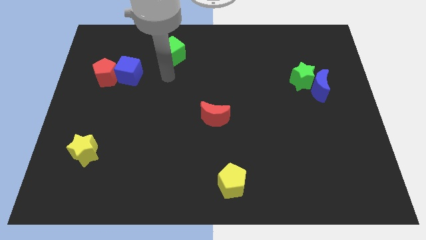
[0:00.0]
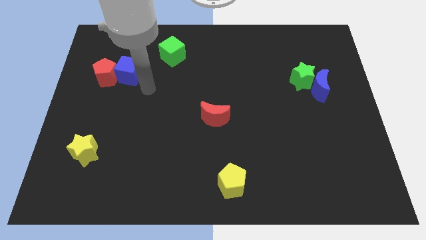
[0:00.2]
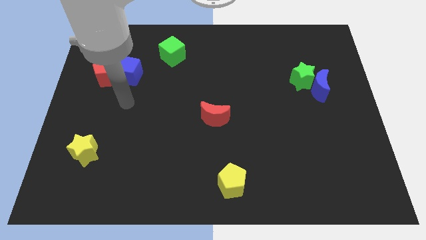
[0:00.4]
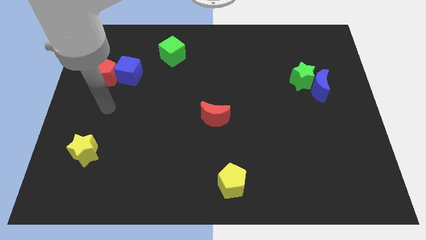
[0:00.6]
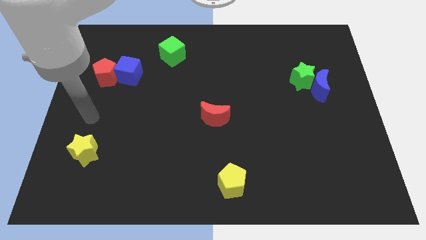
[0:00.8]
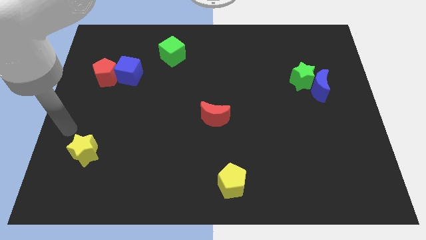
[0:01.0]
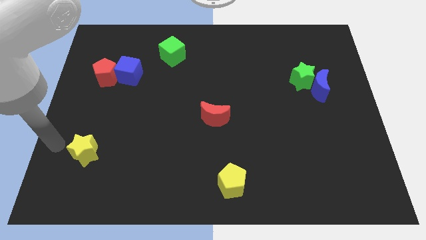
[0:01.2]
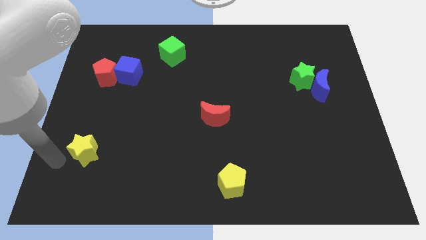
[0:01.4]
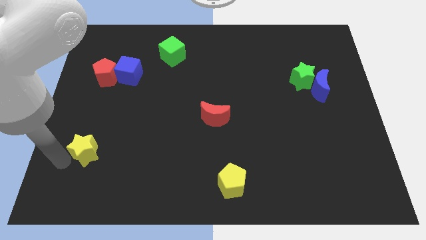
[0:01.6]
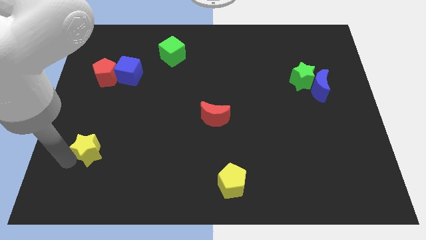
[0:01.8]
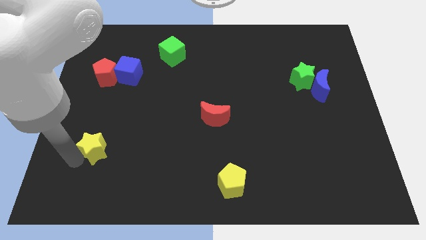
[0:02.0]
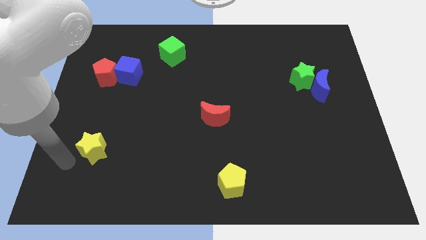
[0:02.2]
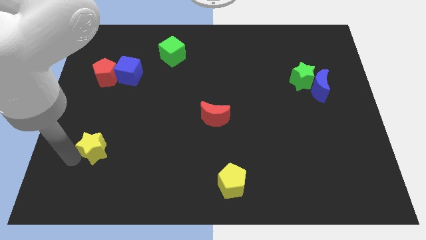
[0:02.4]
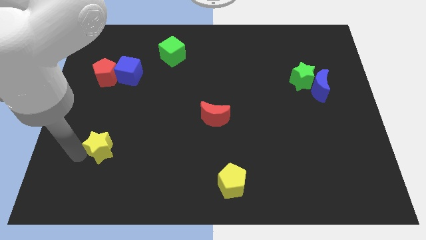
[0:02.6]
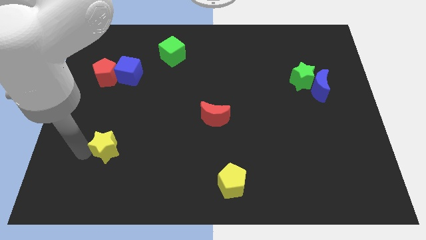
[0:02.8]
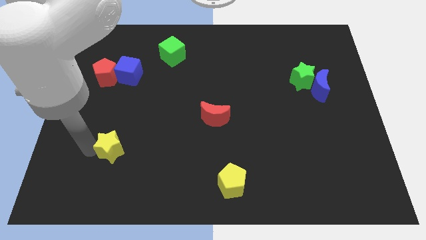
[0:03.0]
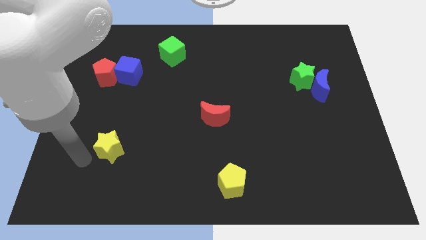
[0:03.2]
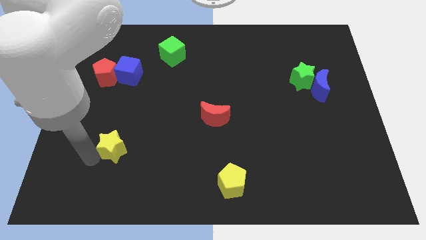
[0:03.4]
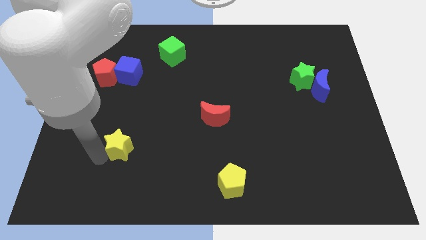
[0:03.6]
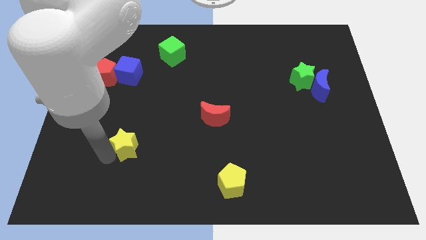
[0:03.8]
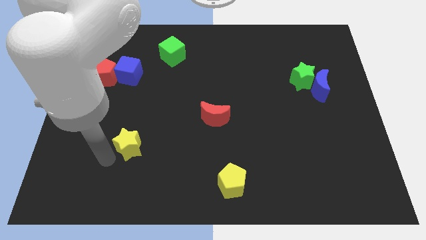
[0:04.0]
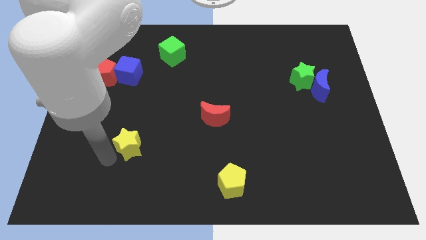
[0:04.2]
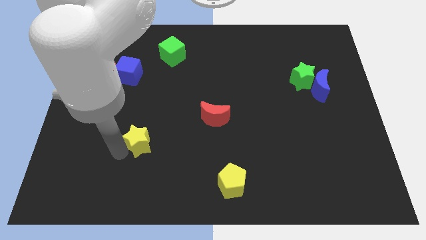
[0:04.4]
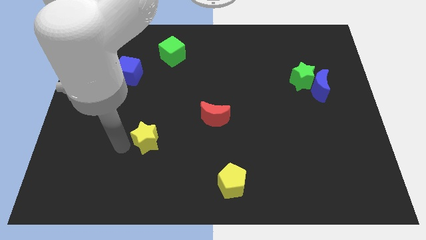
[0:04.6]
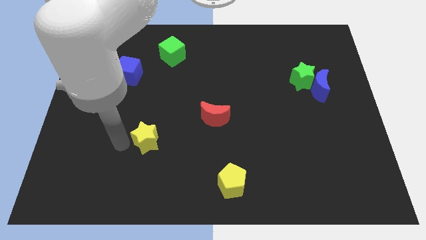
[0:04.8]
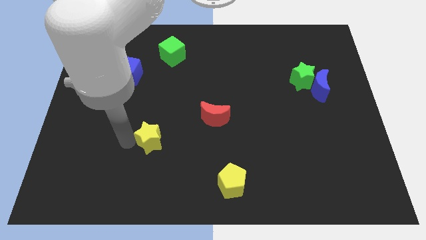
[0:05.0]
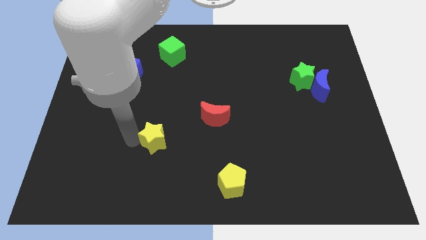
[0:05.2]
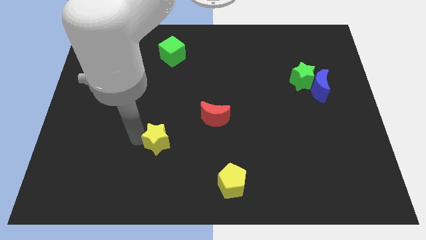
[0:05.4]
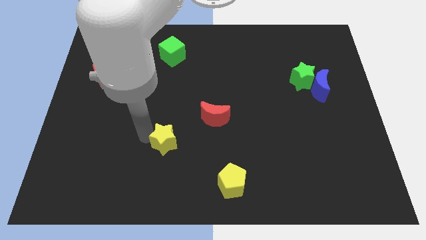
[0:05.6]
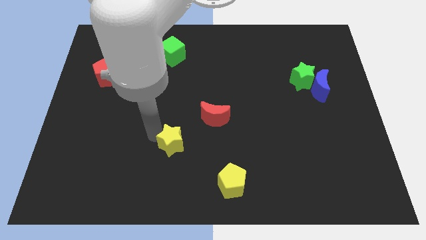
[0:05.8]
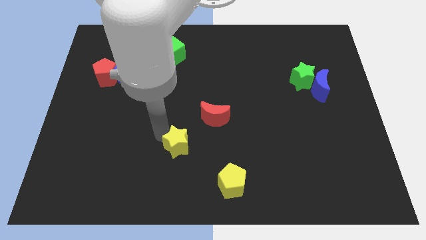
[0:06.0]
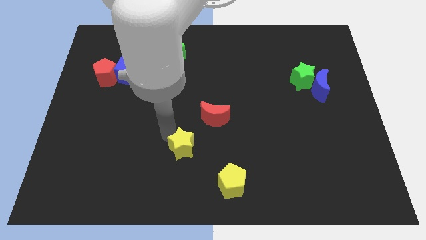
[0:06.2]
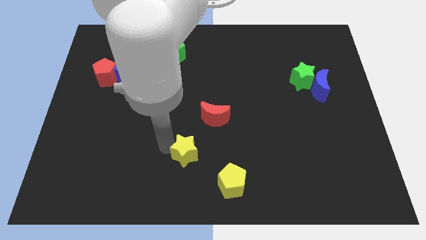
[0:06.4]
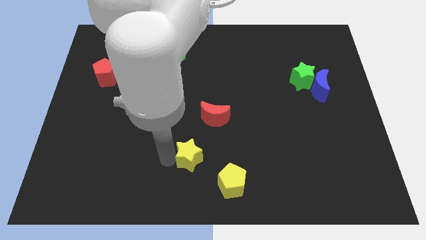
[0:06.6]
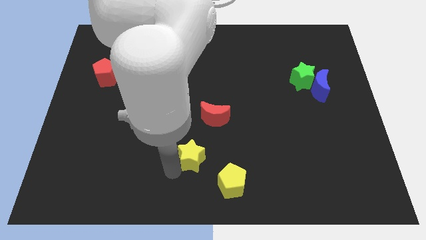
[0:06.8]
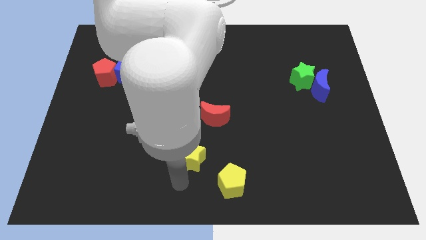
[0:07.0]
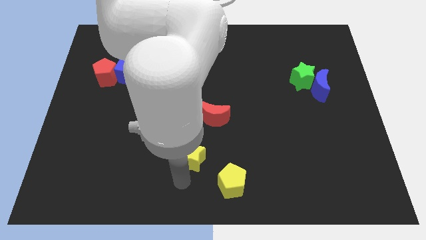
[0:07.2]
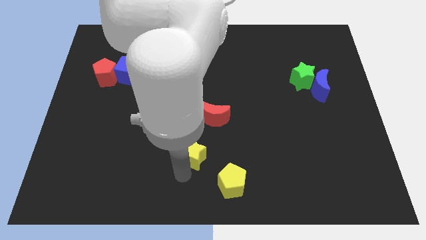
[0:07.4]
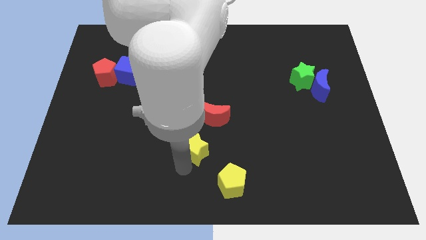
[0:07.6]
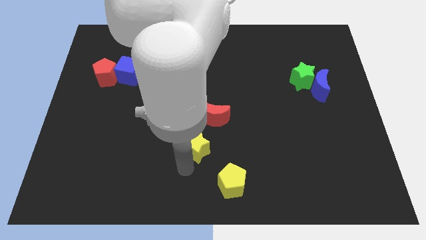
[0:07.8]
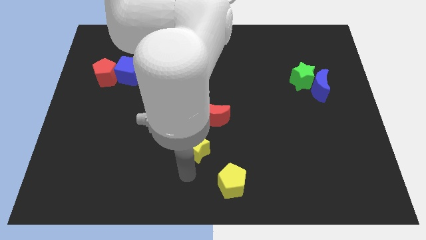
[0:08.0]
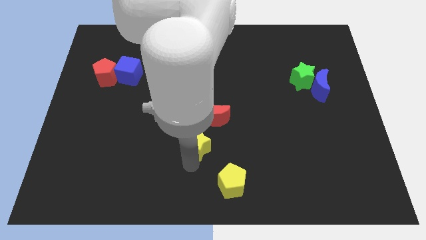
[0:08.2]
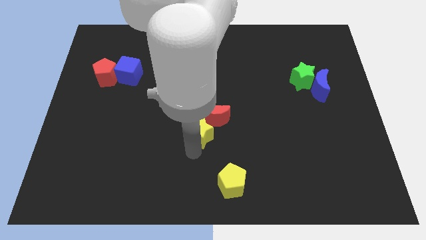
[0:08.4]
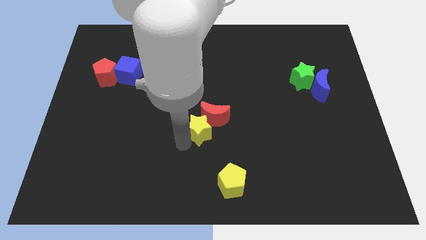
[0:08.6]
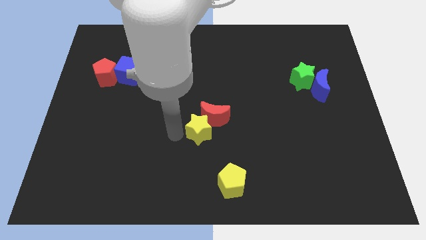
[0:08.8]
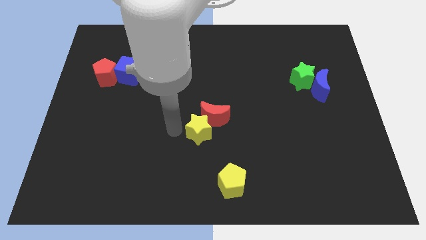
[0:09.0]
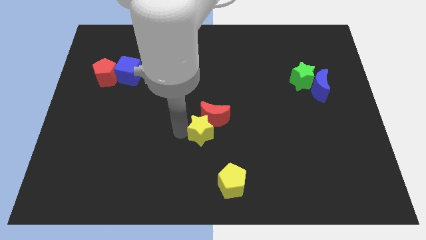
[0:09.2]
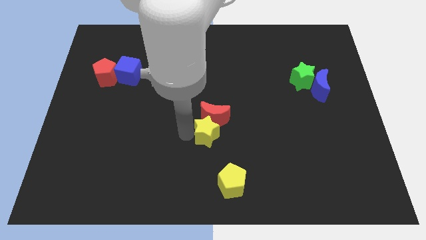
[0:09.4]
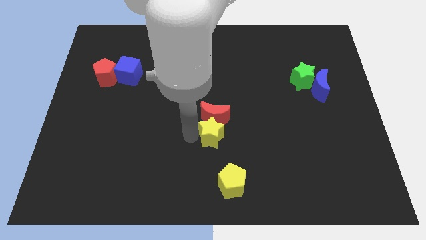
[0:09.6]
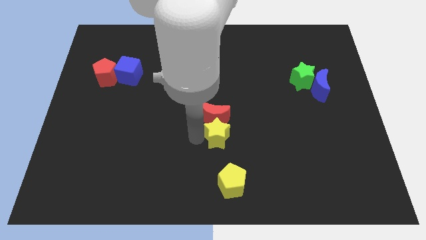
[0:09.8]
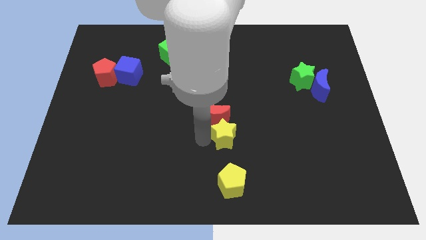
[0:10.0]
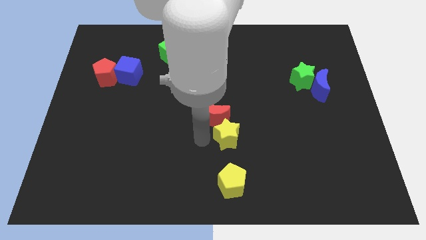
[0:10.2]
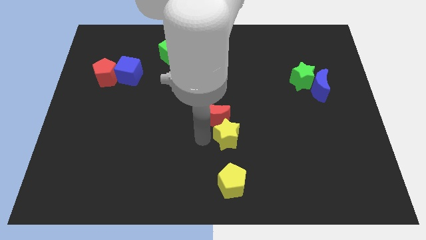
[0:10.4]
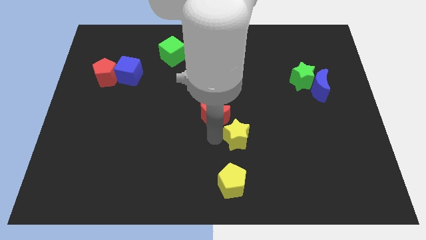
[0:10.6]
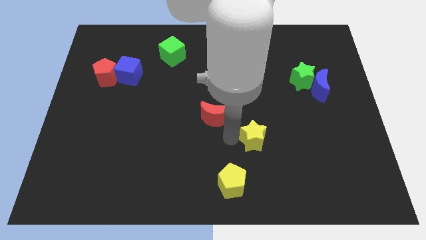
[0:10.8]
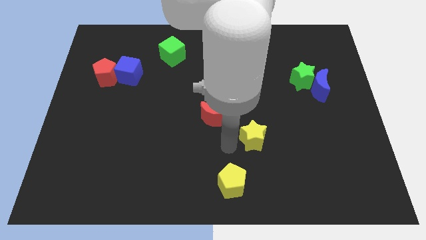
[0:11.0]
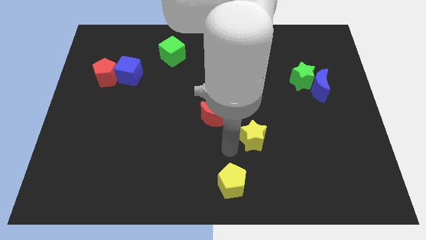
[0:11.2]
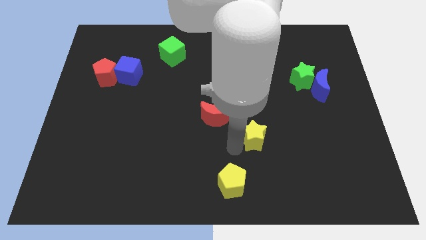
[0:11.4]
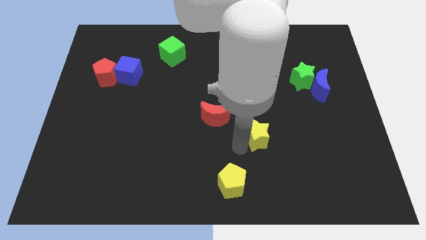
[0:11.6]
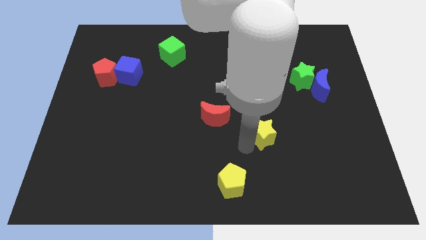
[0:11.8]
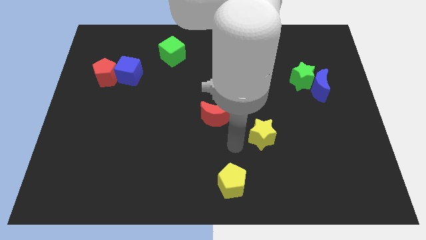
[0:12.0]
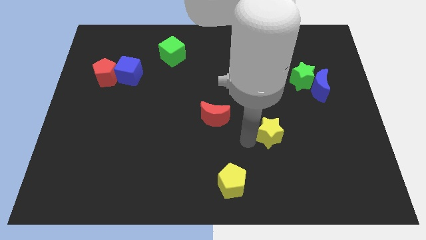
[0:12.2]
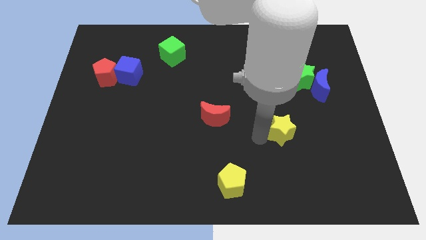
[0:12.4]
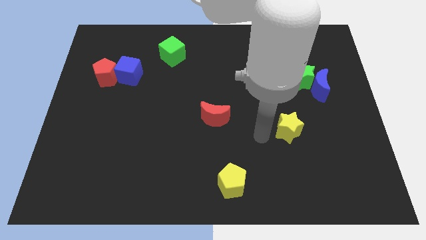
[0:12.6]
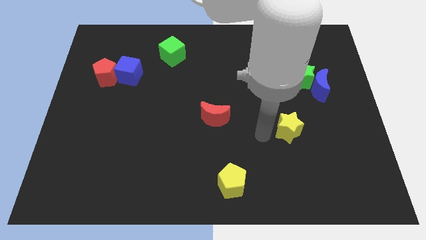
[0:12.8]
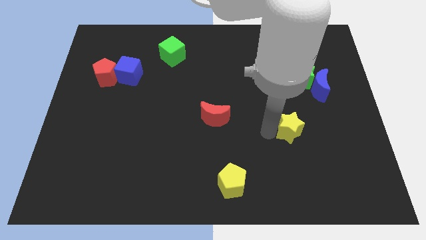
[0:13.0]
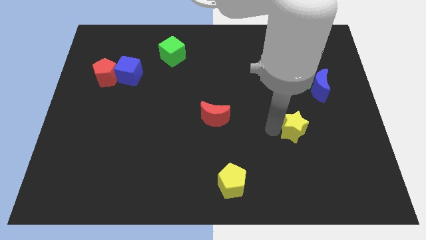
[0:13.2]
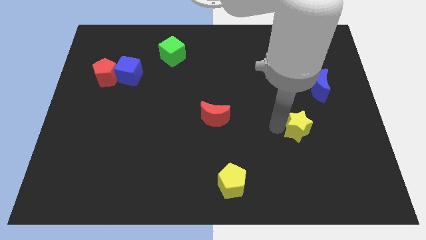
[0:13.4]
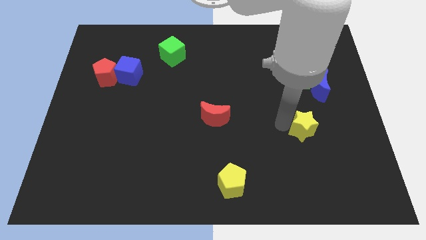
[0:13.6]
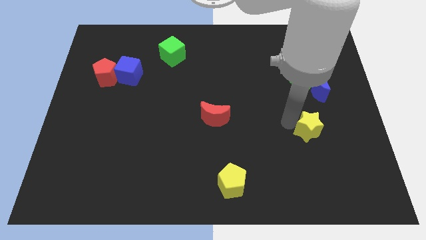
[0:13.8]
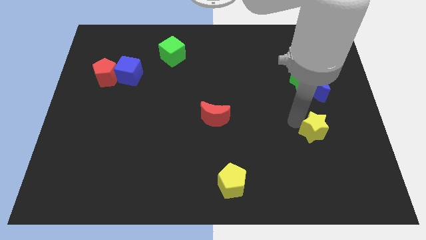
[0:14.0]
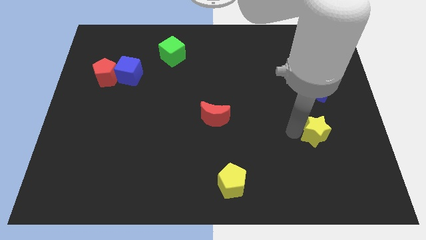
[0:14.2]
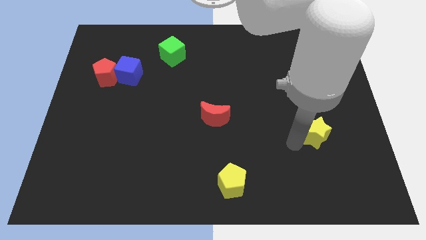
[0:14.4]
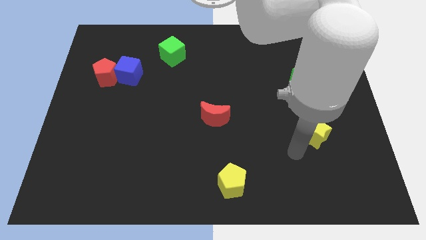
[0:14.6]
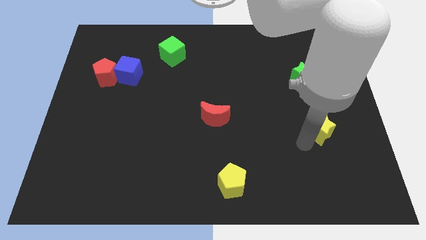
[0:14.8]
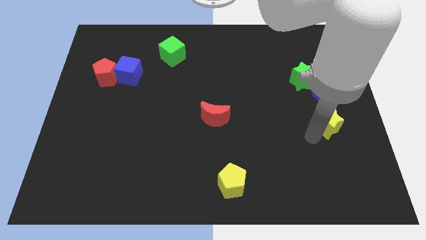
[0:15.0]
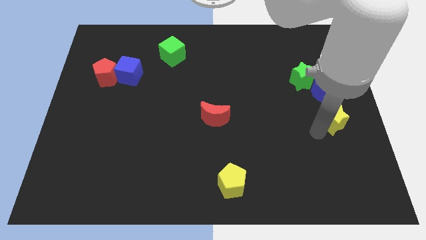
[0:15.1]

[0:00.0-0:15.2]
move the yellow star to the right side of the board
